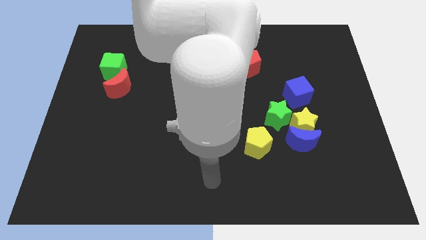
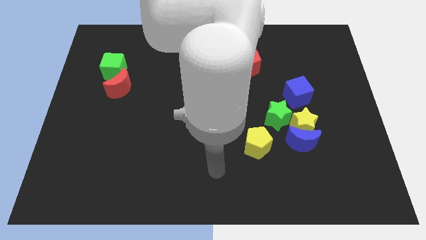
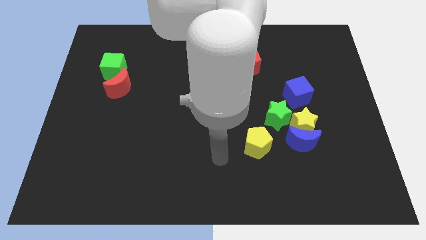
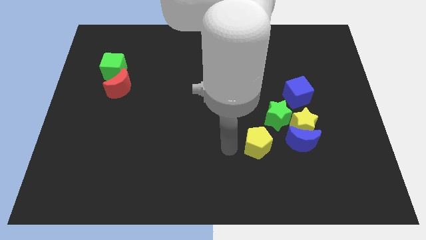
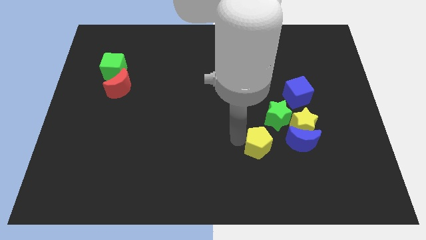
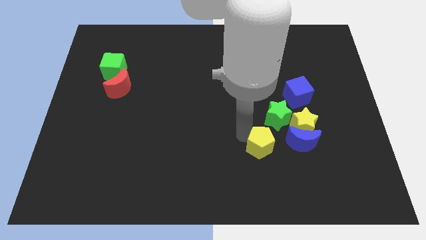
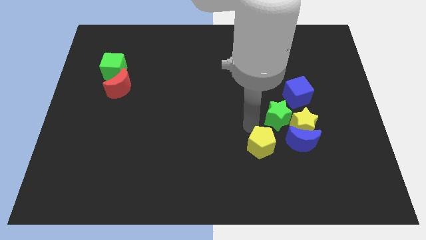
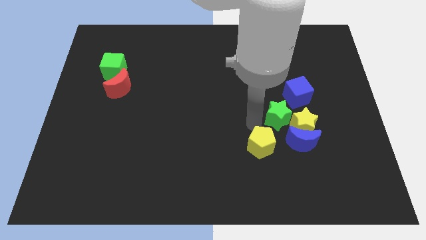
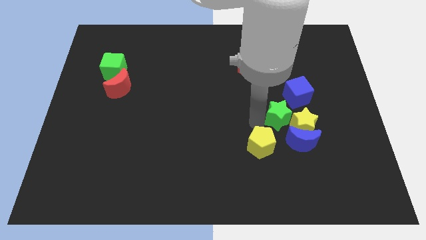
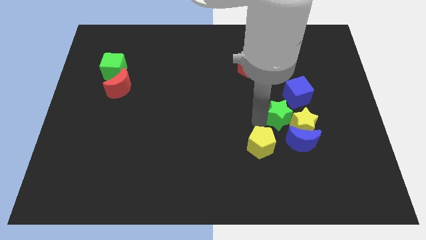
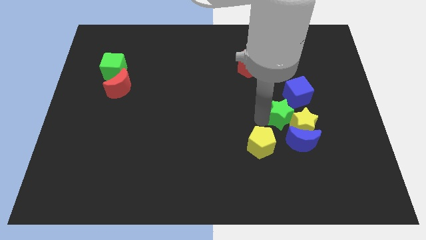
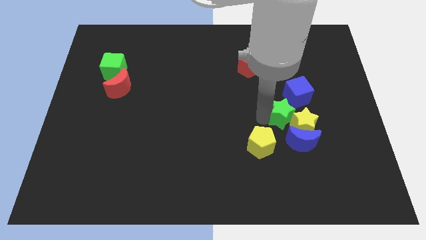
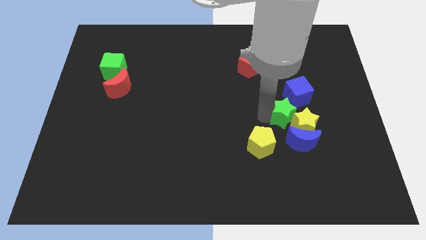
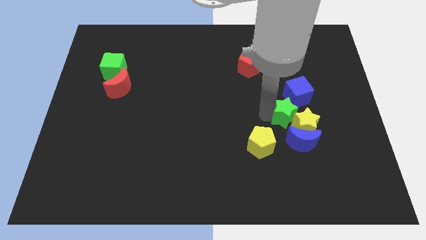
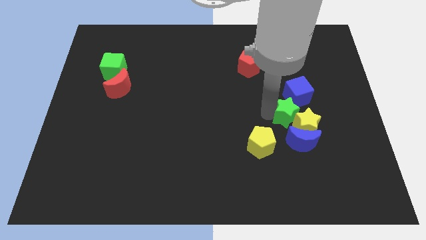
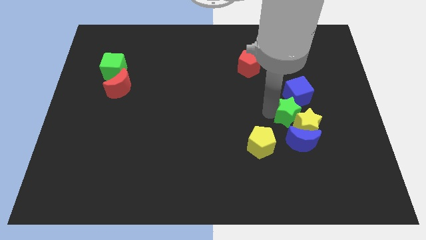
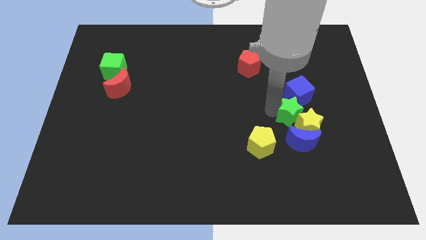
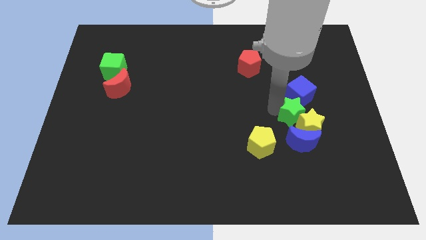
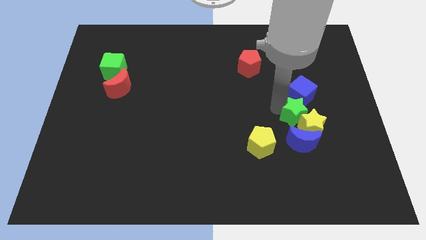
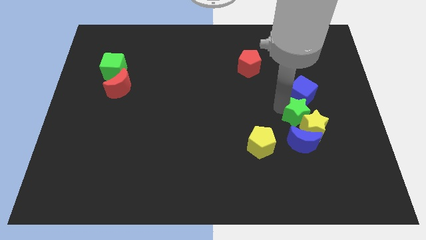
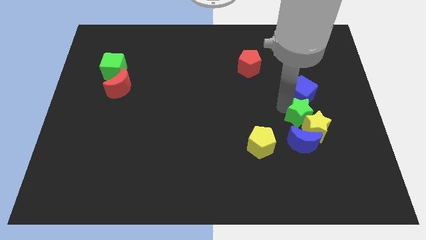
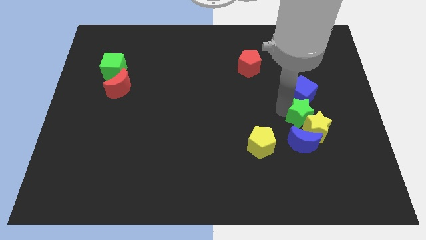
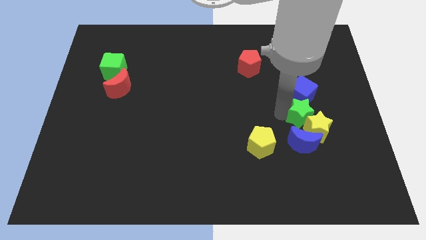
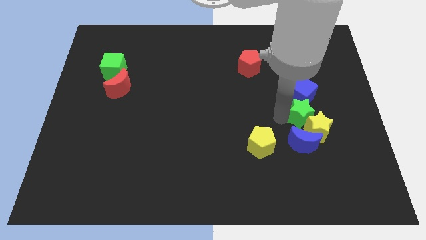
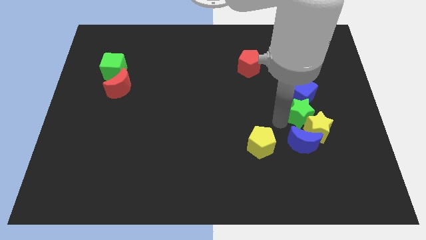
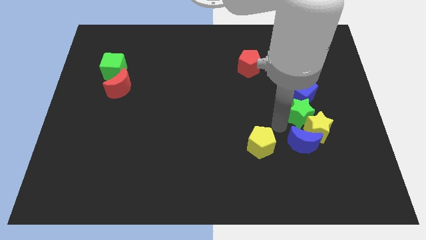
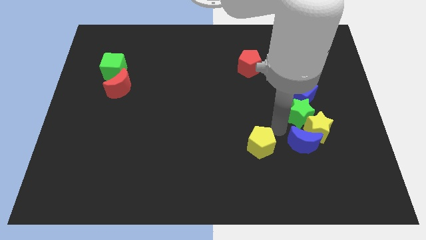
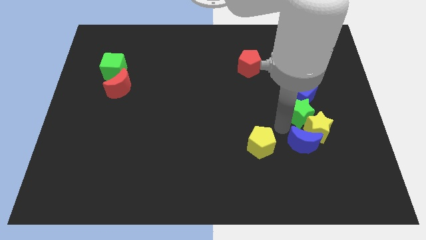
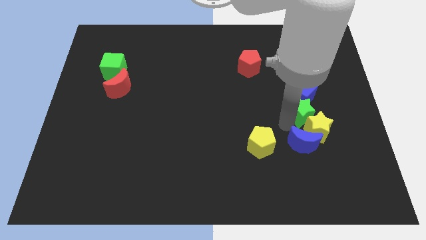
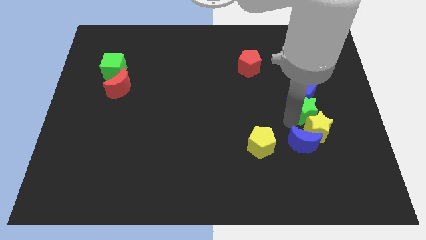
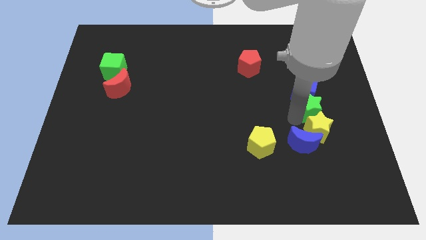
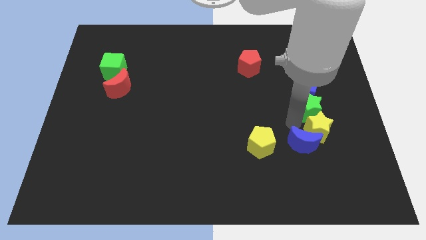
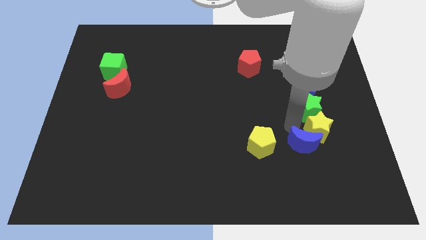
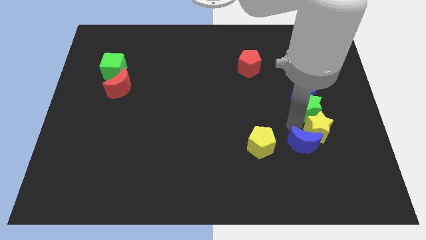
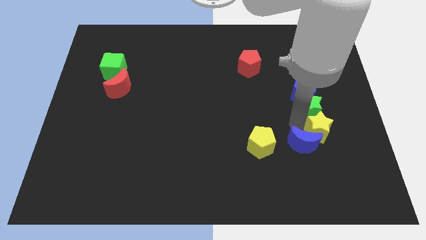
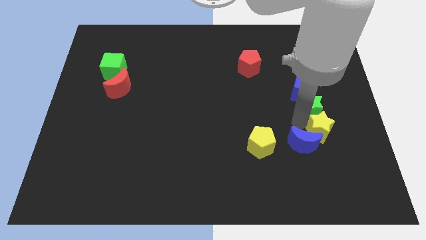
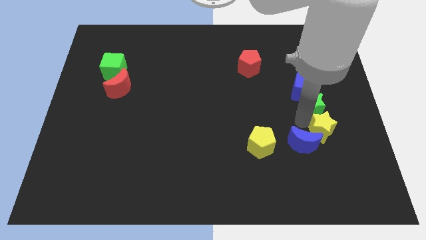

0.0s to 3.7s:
slide the green star a bit up and then right

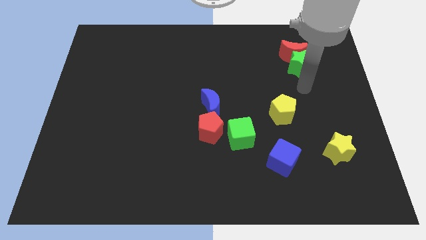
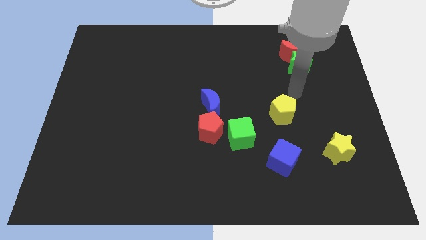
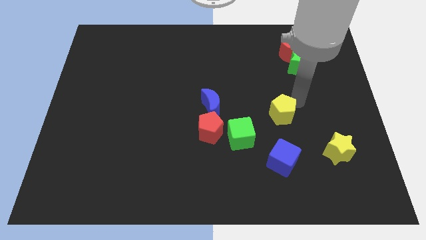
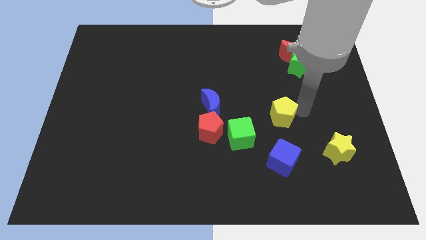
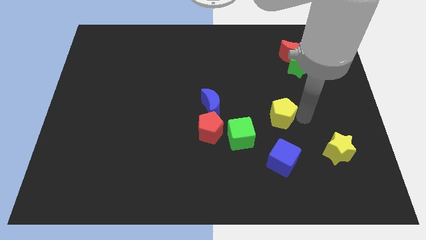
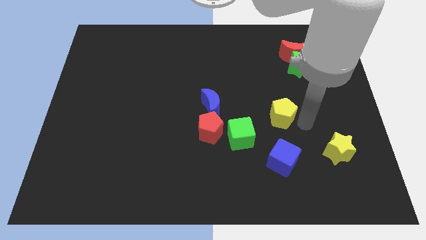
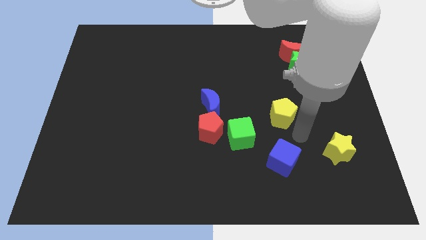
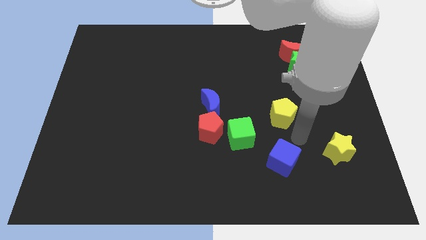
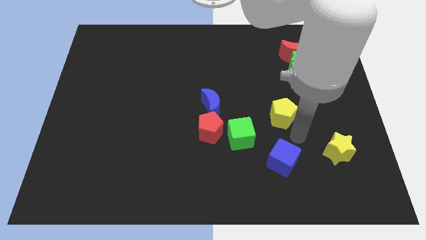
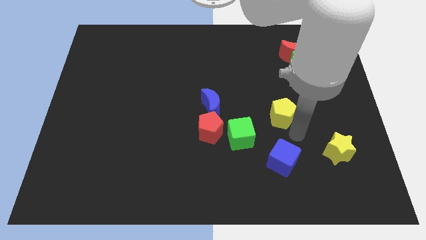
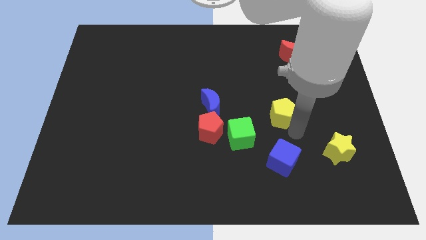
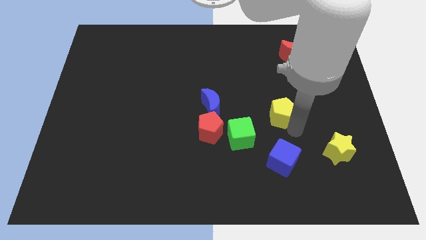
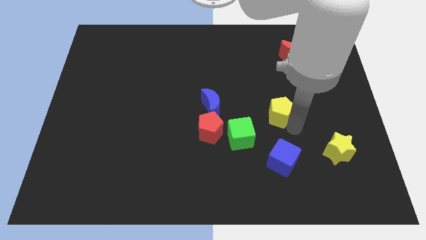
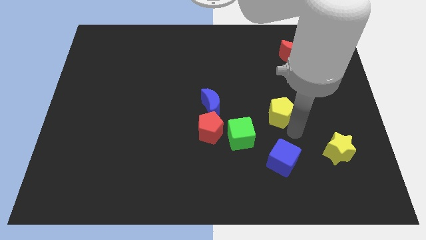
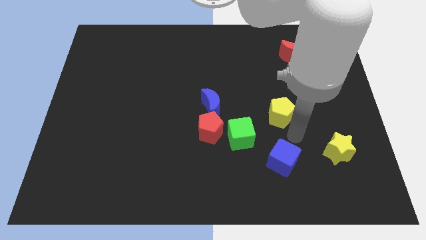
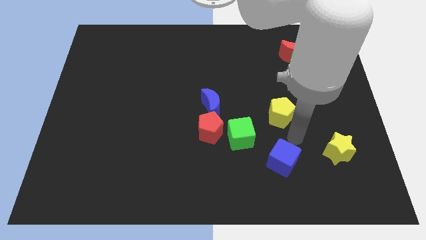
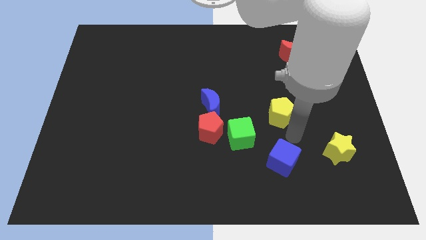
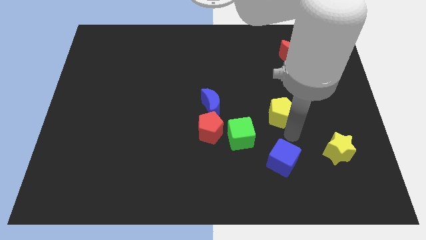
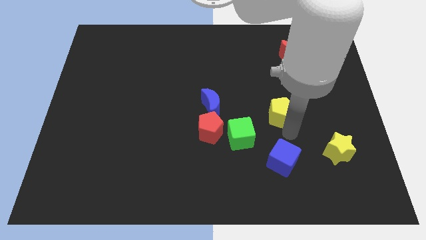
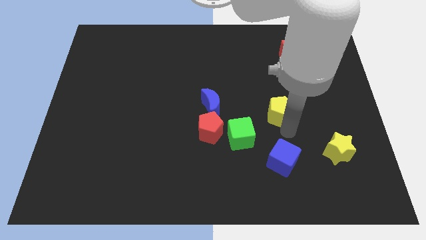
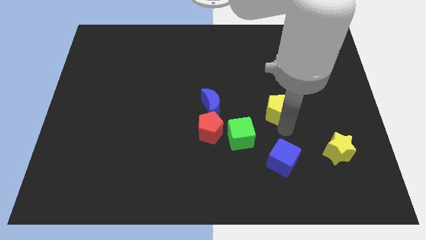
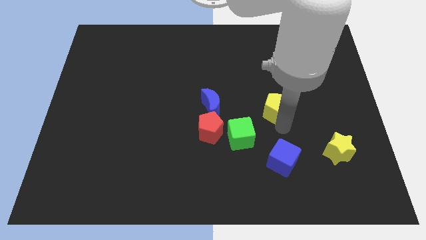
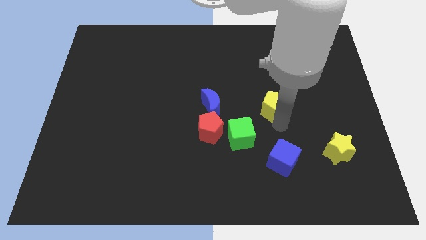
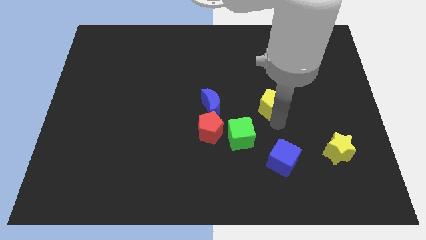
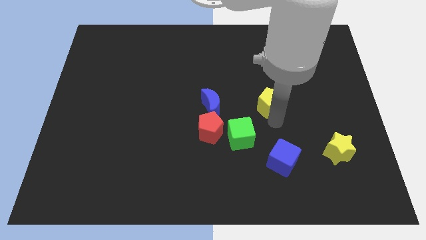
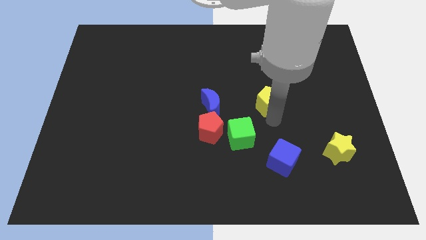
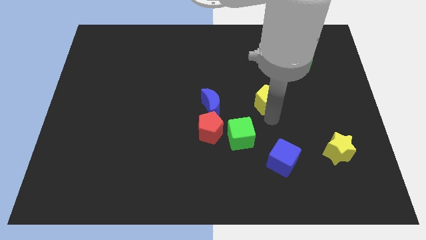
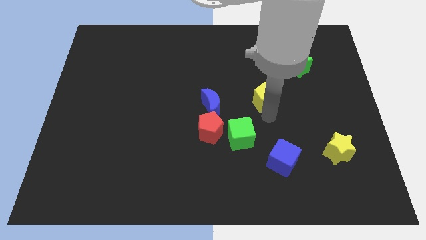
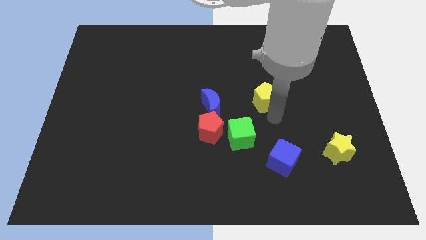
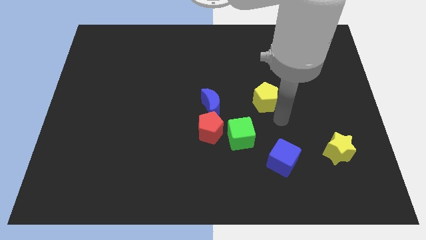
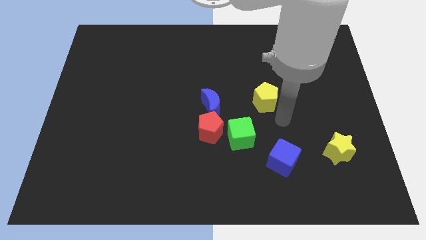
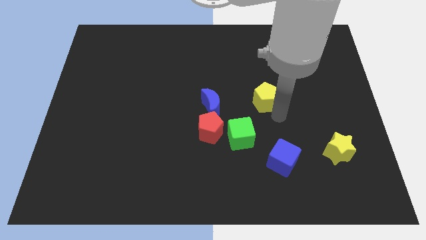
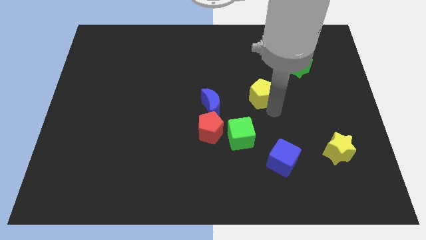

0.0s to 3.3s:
slightly slide the yellow pentagon upwards and left diagonally

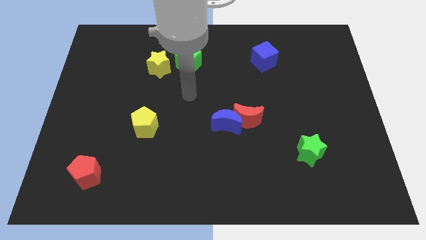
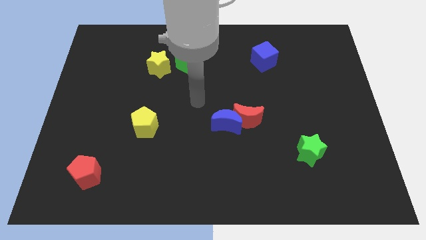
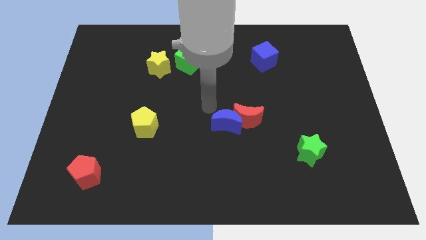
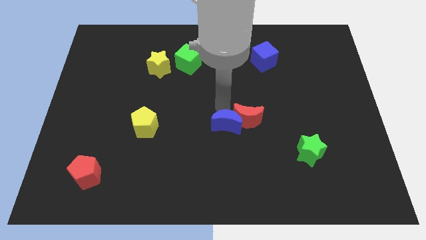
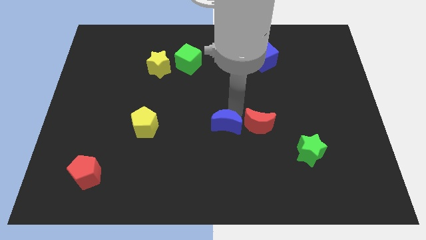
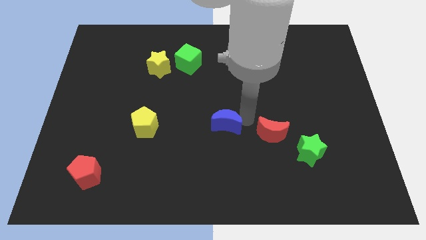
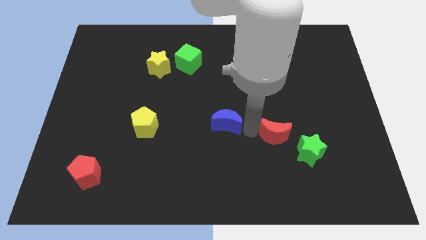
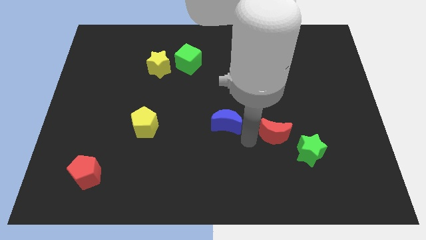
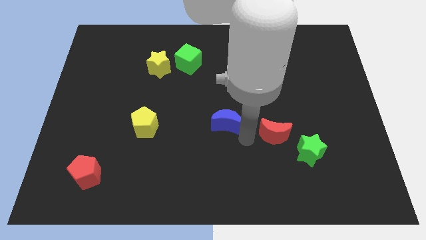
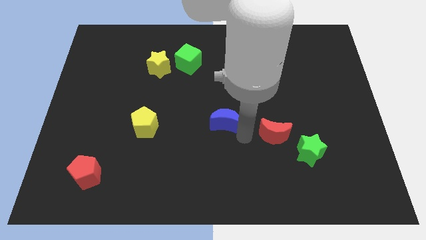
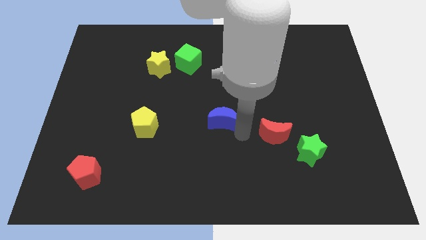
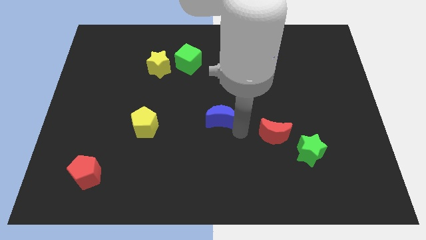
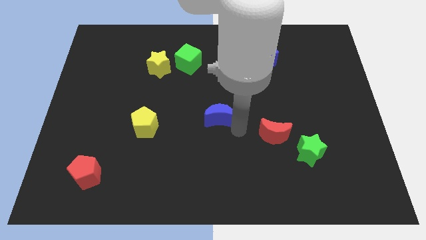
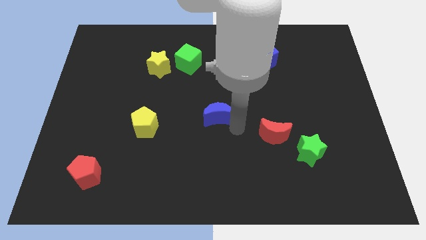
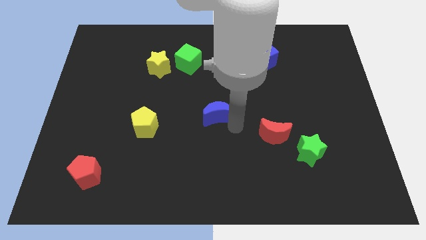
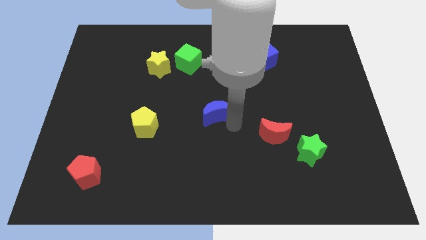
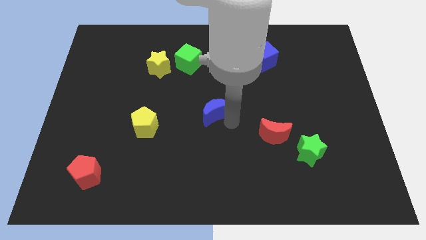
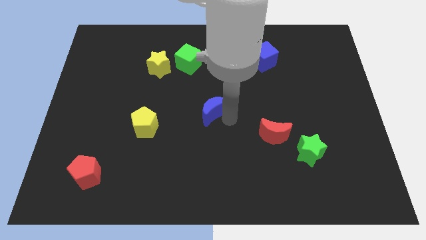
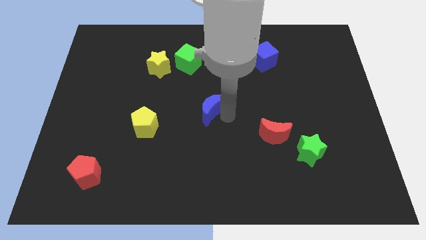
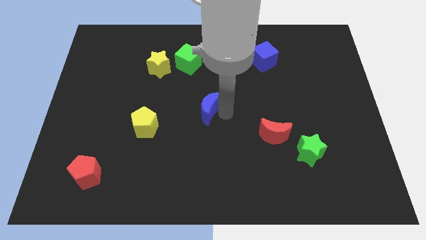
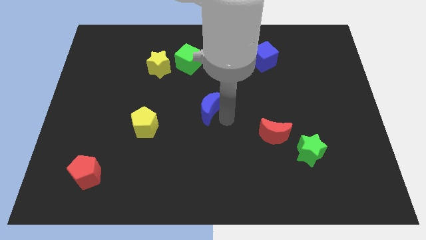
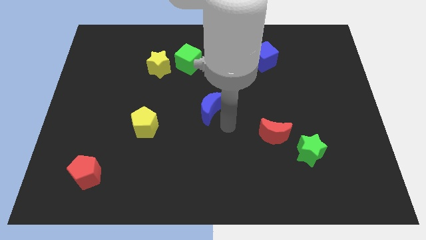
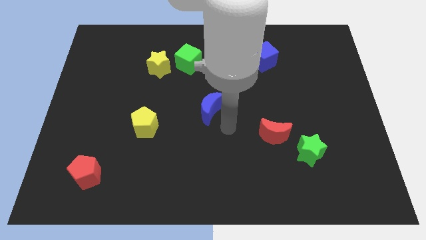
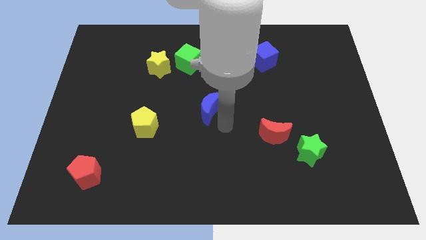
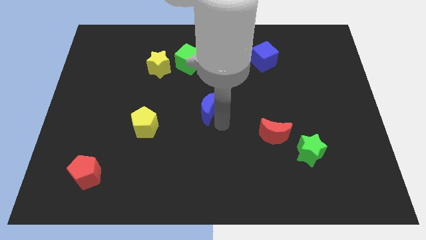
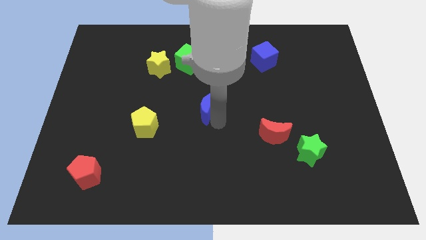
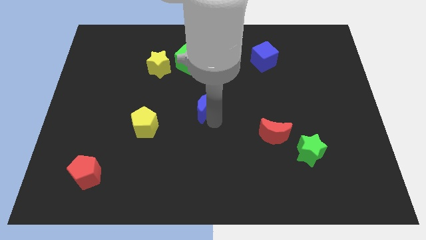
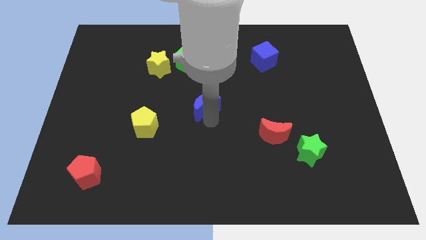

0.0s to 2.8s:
move the blue moon a little up and to the left
